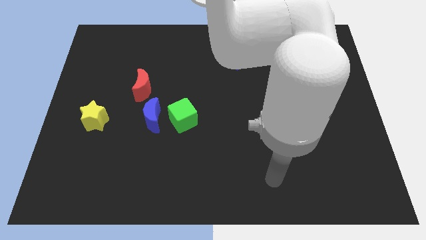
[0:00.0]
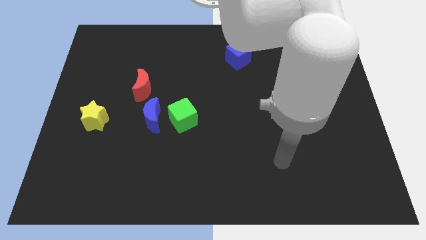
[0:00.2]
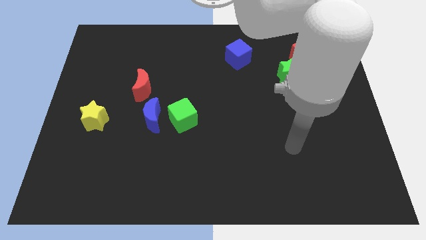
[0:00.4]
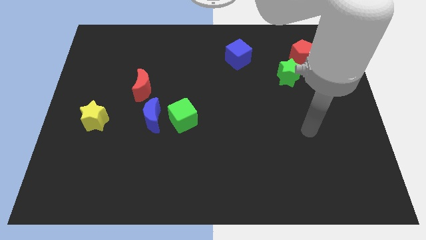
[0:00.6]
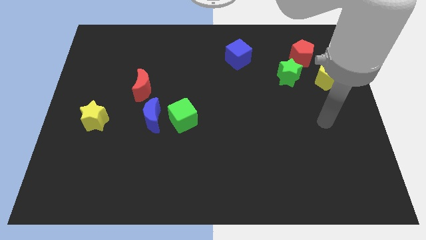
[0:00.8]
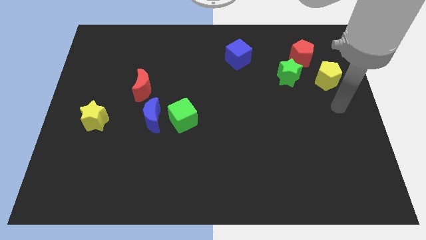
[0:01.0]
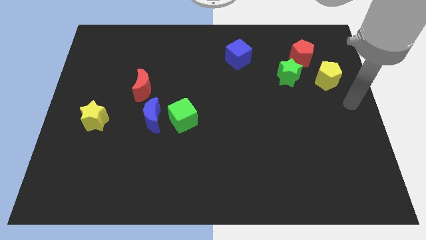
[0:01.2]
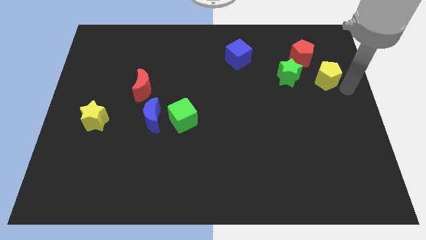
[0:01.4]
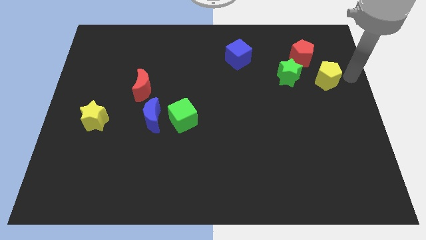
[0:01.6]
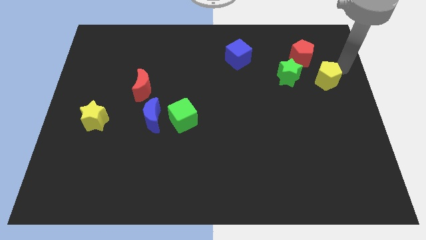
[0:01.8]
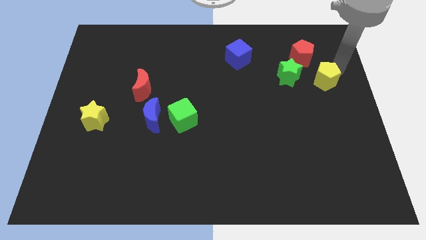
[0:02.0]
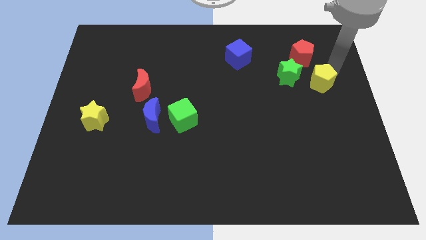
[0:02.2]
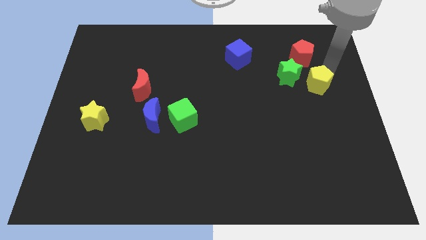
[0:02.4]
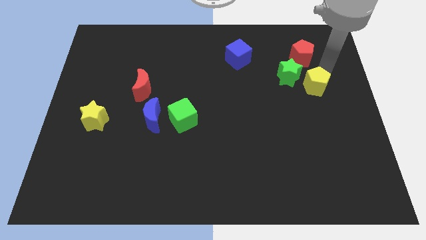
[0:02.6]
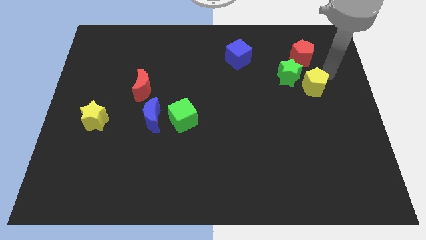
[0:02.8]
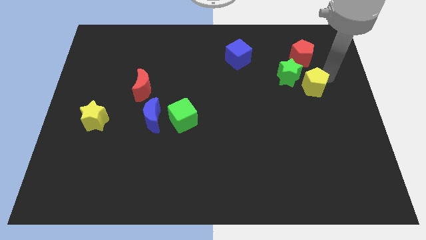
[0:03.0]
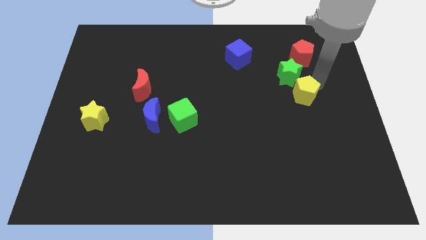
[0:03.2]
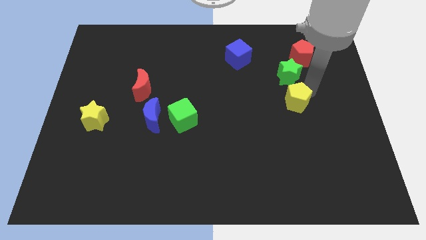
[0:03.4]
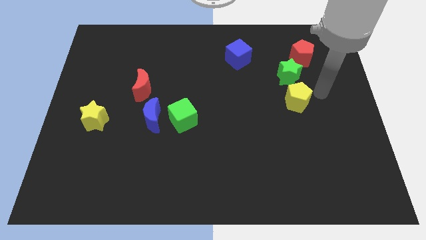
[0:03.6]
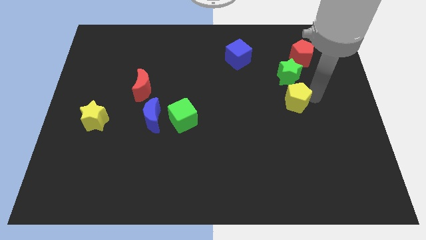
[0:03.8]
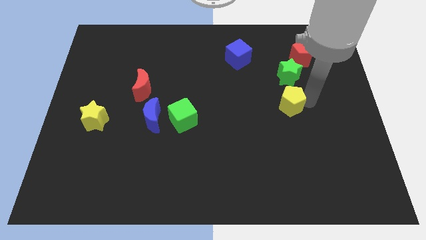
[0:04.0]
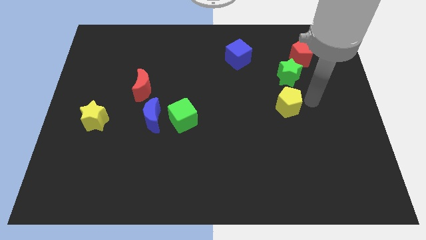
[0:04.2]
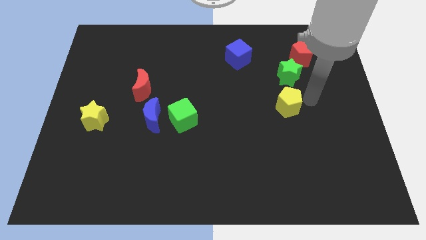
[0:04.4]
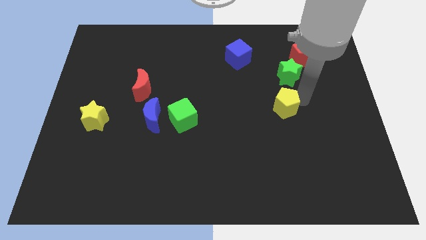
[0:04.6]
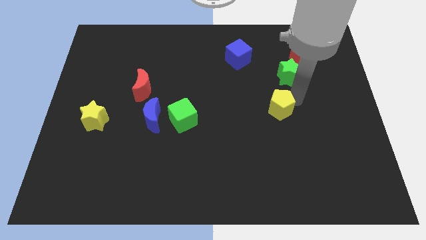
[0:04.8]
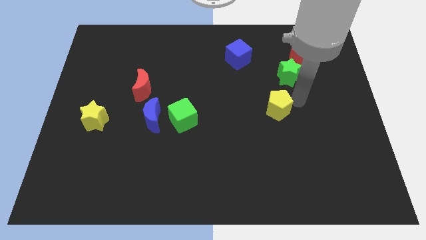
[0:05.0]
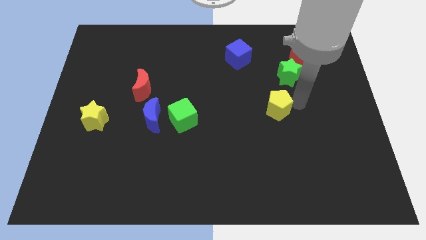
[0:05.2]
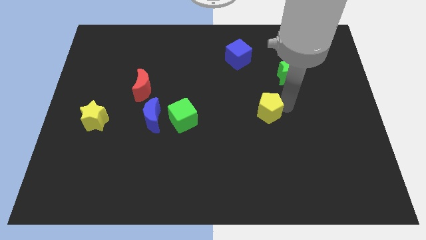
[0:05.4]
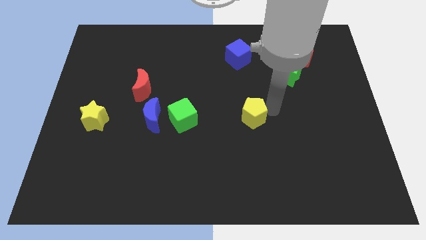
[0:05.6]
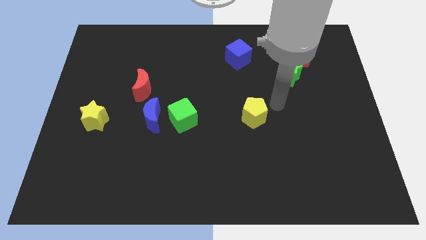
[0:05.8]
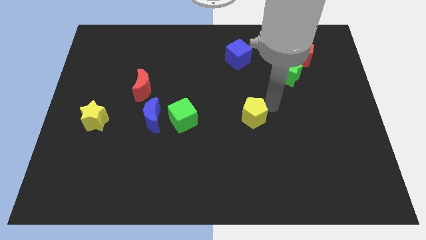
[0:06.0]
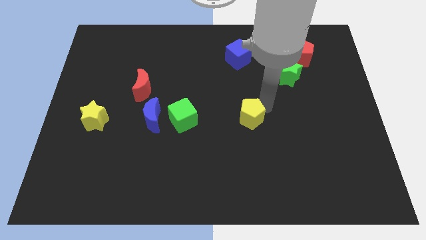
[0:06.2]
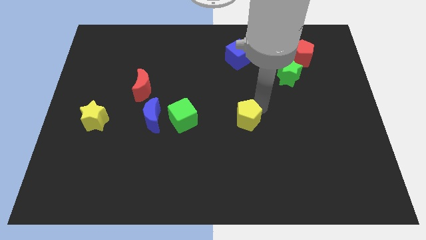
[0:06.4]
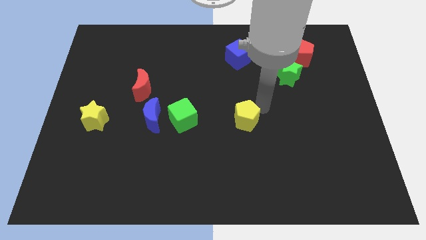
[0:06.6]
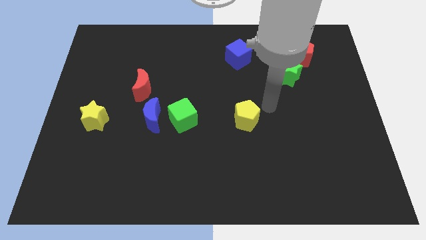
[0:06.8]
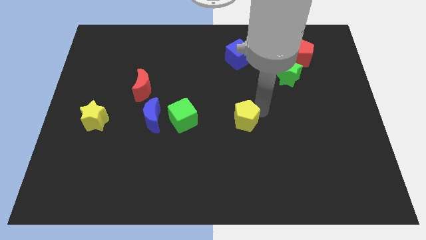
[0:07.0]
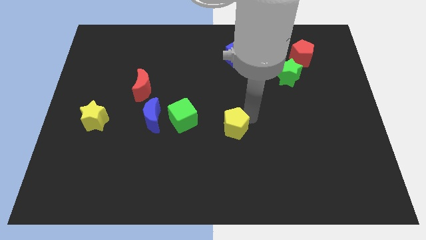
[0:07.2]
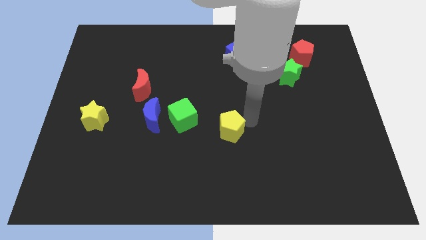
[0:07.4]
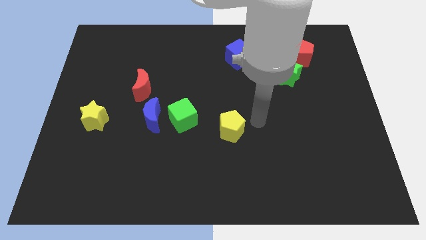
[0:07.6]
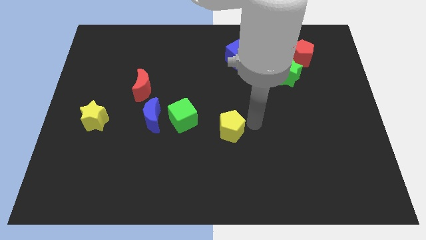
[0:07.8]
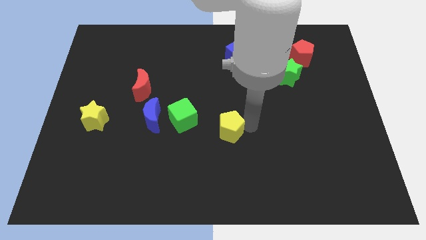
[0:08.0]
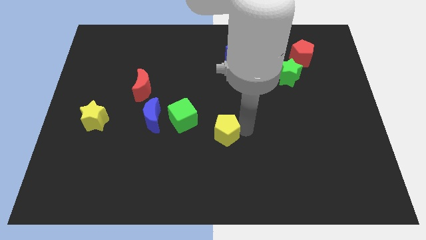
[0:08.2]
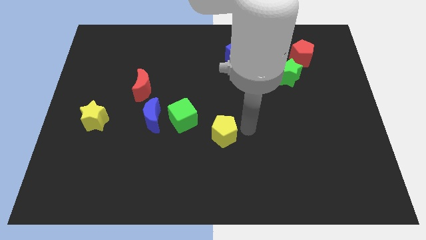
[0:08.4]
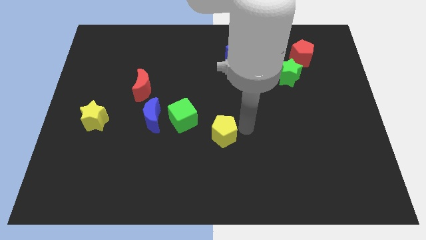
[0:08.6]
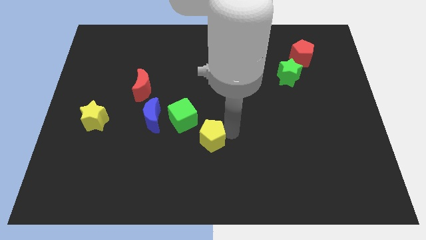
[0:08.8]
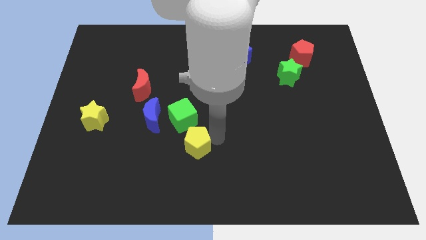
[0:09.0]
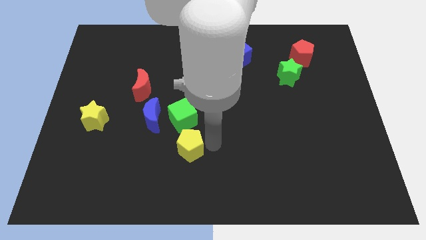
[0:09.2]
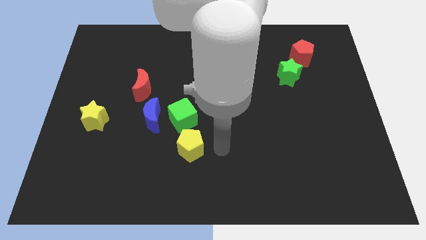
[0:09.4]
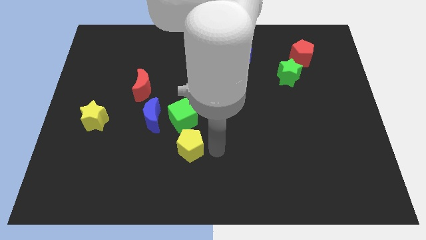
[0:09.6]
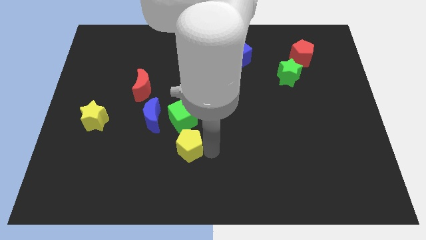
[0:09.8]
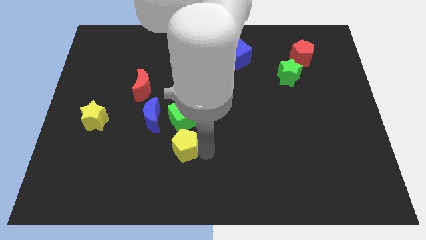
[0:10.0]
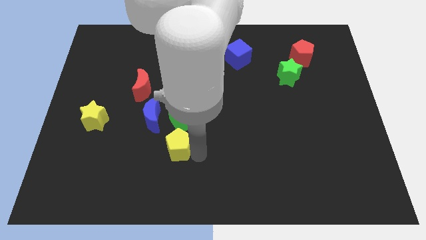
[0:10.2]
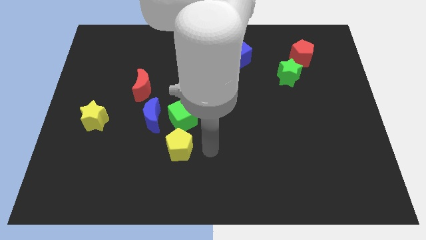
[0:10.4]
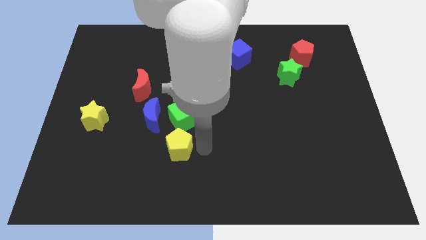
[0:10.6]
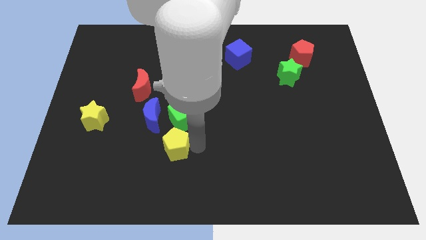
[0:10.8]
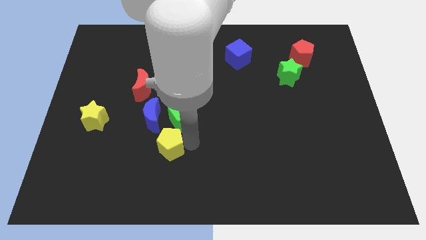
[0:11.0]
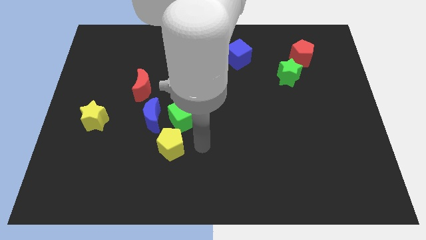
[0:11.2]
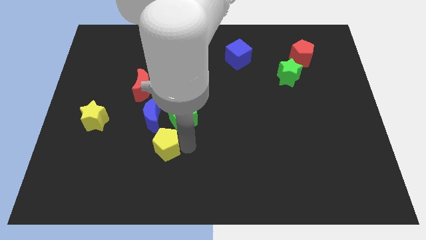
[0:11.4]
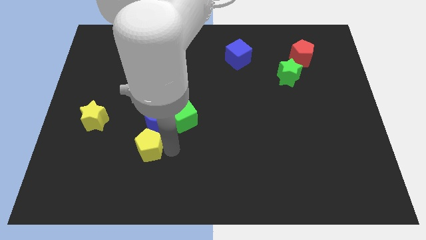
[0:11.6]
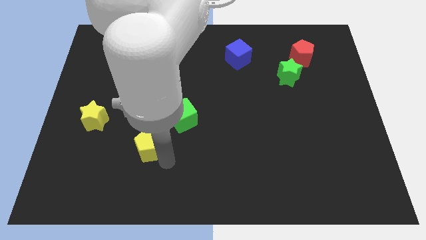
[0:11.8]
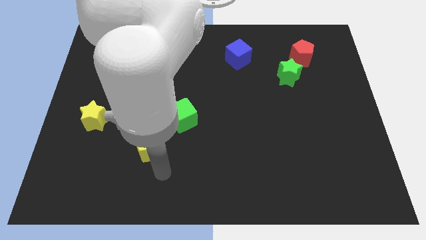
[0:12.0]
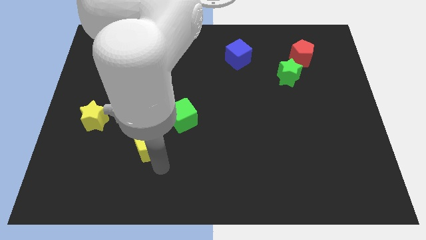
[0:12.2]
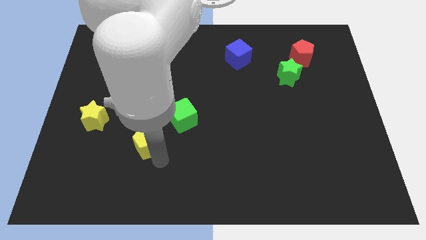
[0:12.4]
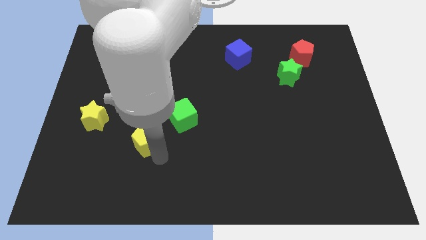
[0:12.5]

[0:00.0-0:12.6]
slide the yellow pentagon below the red moon

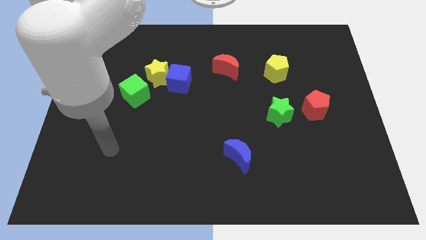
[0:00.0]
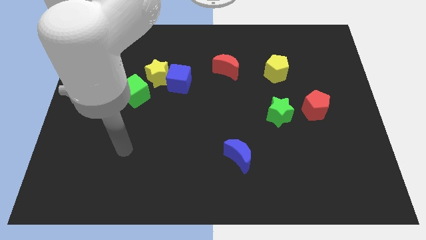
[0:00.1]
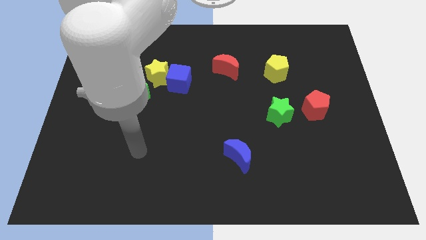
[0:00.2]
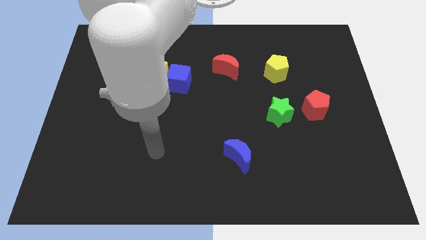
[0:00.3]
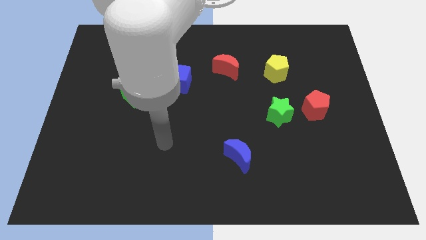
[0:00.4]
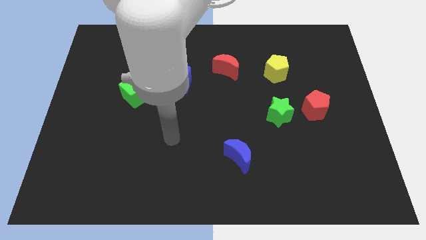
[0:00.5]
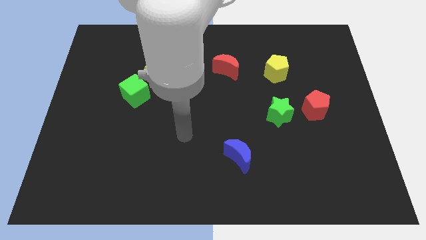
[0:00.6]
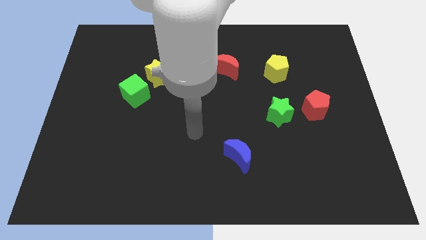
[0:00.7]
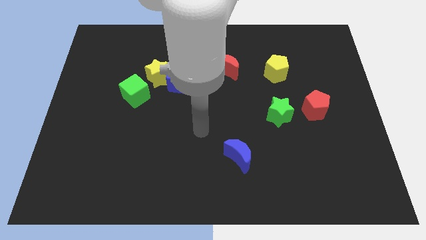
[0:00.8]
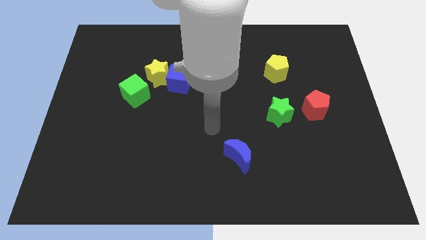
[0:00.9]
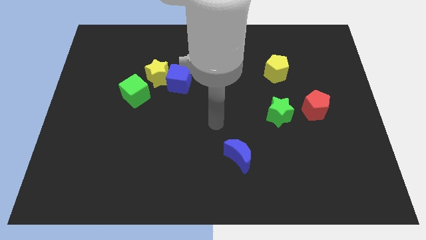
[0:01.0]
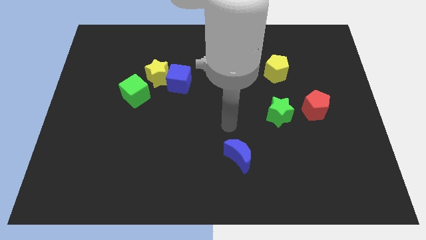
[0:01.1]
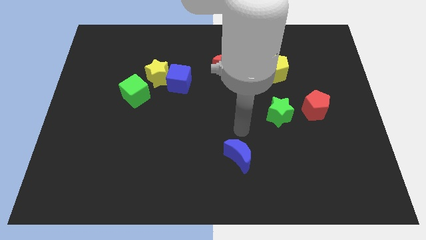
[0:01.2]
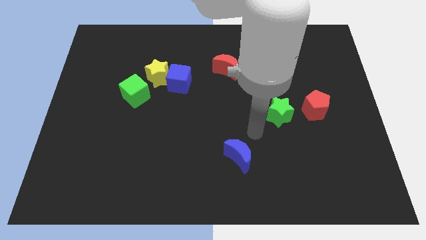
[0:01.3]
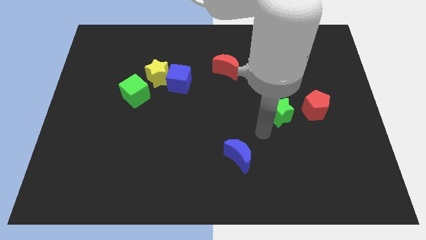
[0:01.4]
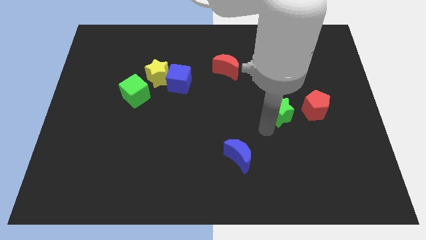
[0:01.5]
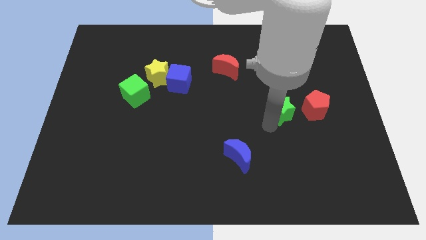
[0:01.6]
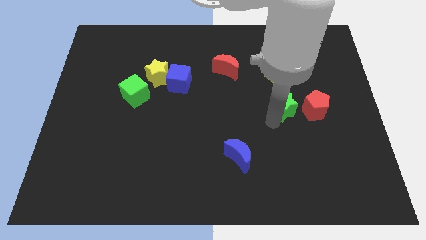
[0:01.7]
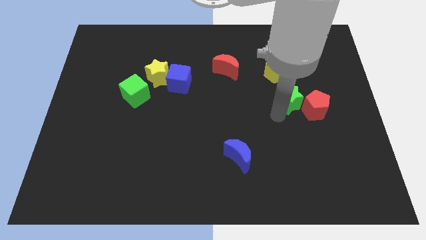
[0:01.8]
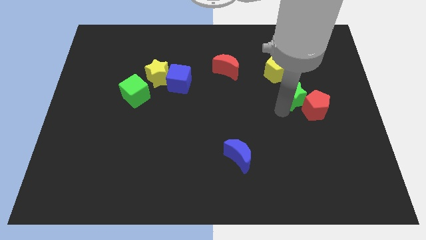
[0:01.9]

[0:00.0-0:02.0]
slide the green star to the bottom right side of the yellow pentagon
